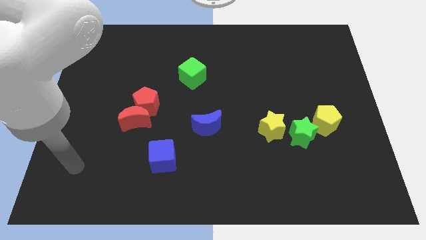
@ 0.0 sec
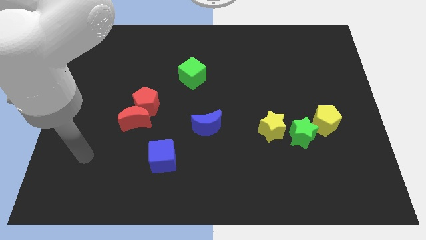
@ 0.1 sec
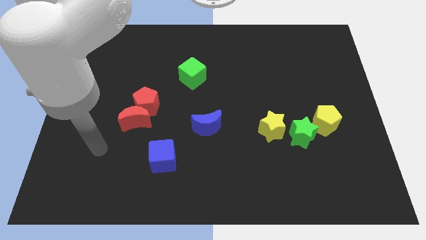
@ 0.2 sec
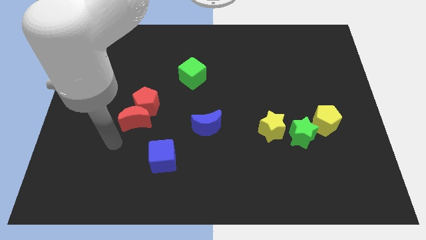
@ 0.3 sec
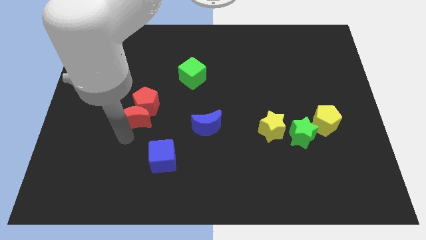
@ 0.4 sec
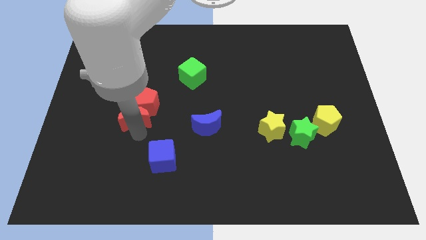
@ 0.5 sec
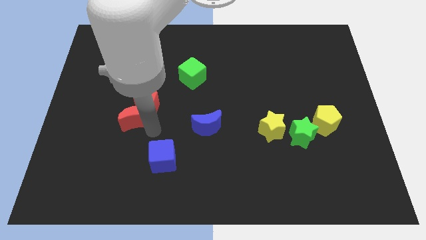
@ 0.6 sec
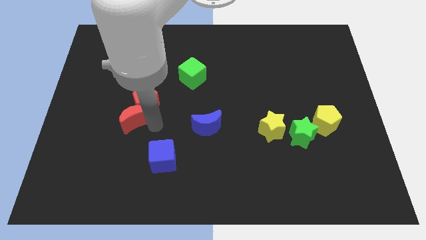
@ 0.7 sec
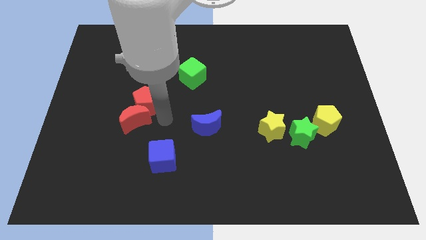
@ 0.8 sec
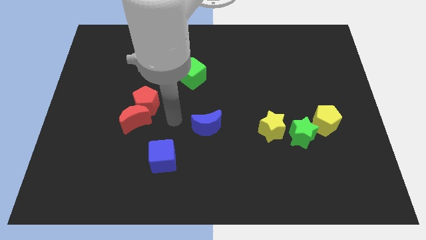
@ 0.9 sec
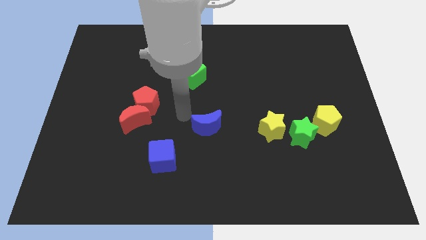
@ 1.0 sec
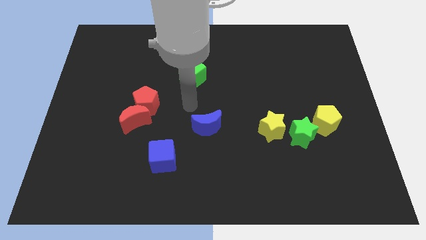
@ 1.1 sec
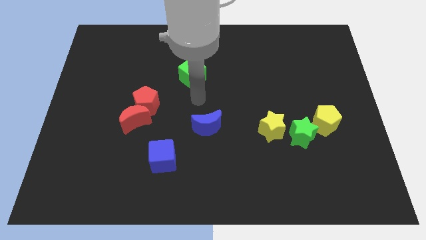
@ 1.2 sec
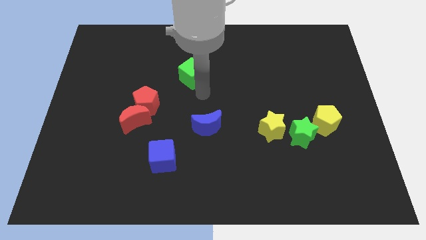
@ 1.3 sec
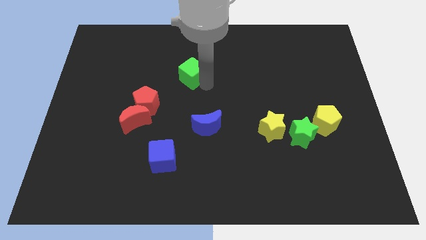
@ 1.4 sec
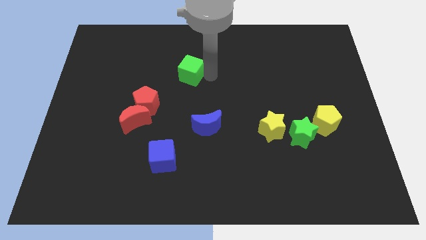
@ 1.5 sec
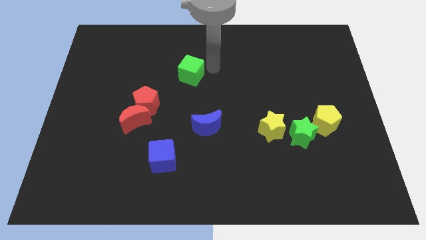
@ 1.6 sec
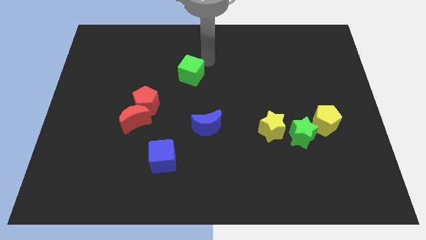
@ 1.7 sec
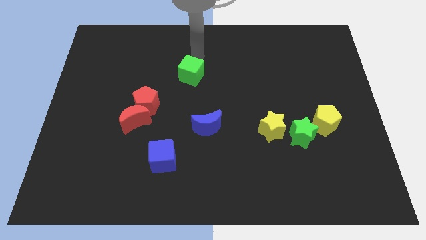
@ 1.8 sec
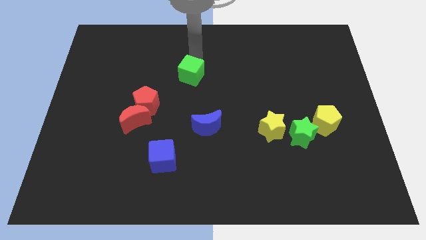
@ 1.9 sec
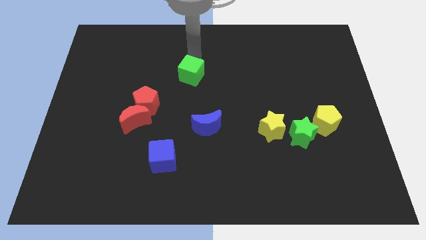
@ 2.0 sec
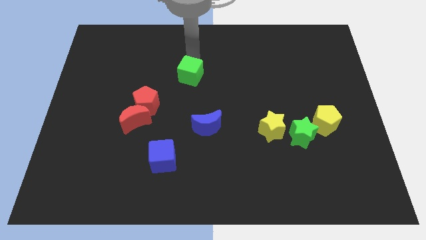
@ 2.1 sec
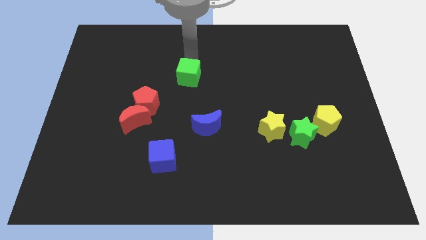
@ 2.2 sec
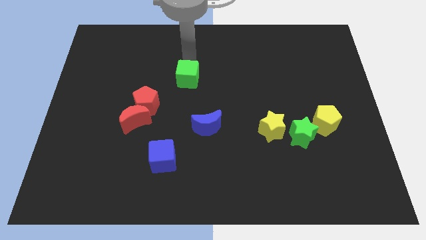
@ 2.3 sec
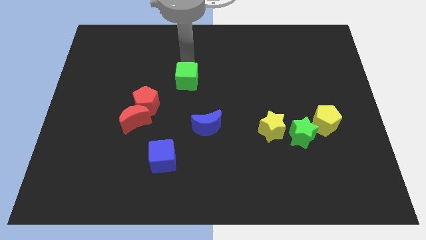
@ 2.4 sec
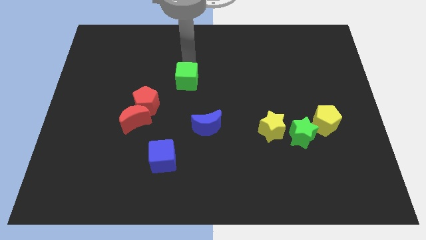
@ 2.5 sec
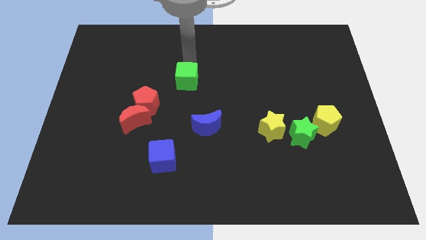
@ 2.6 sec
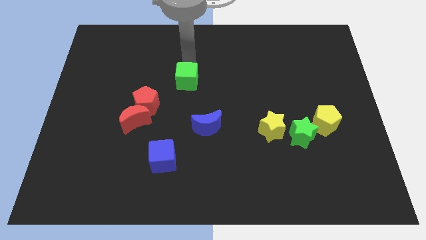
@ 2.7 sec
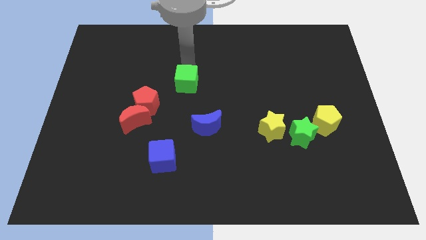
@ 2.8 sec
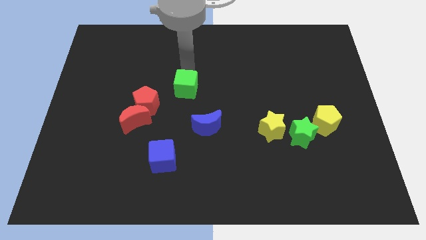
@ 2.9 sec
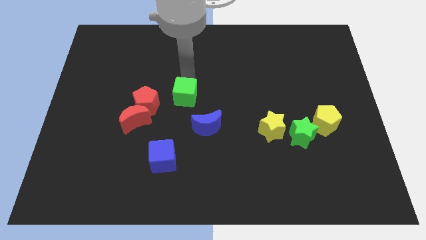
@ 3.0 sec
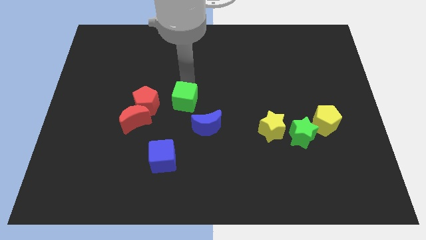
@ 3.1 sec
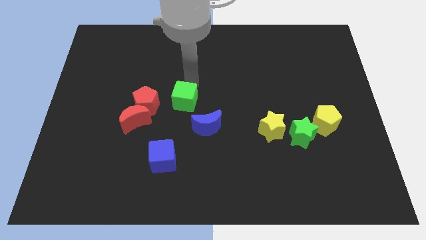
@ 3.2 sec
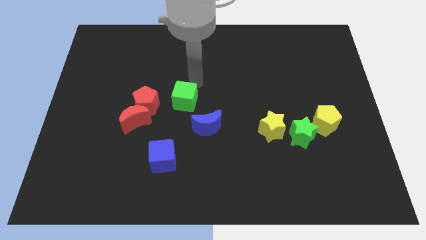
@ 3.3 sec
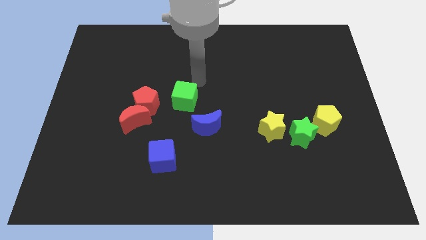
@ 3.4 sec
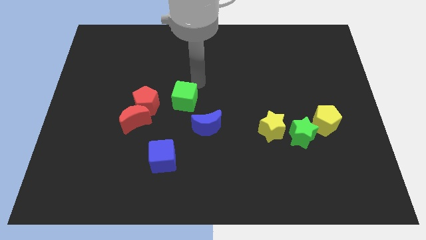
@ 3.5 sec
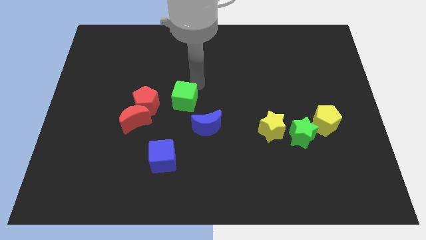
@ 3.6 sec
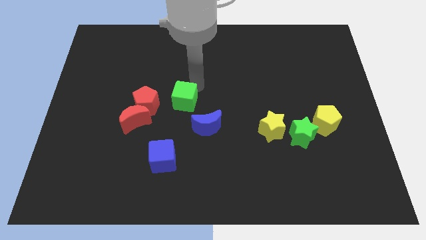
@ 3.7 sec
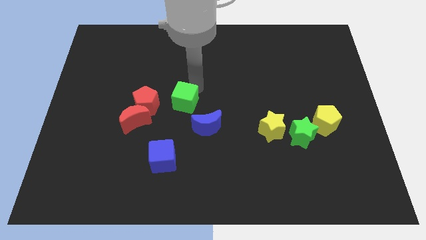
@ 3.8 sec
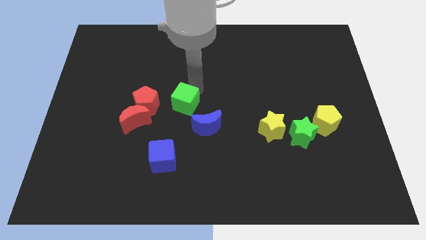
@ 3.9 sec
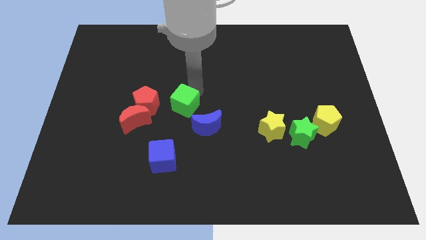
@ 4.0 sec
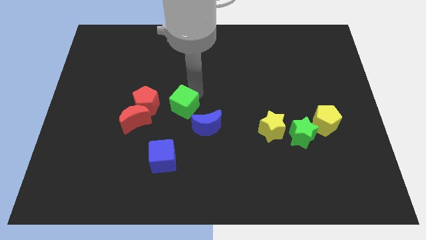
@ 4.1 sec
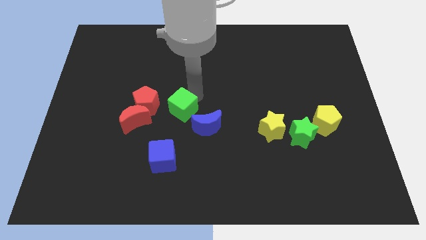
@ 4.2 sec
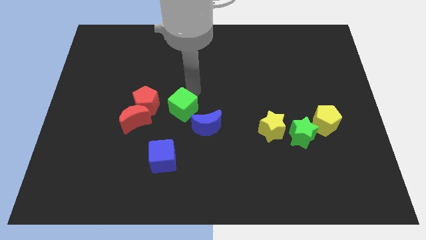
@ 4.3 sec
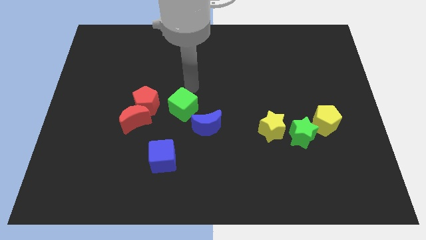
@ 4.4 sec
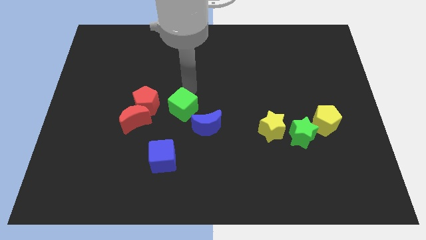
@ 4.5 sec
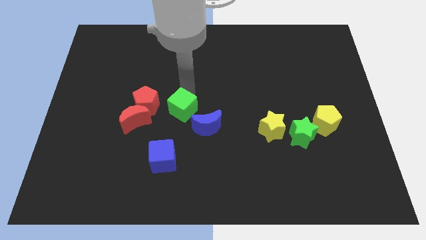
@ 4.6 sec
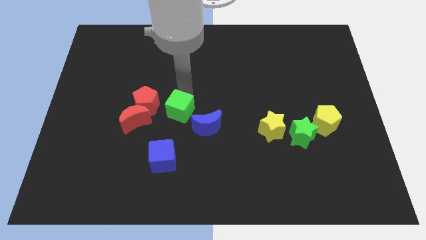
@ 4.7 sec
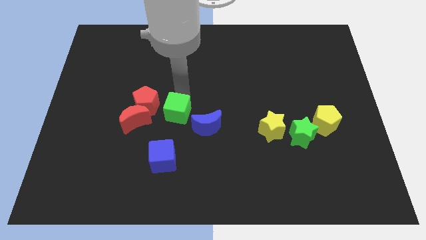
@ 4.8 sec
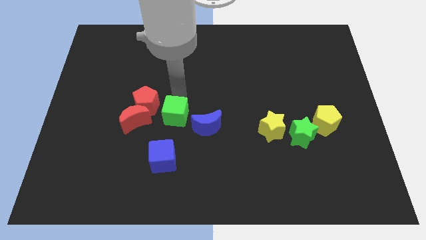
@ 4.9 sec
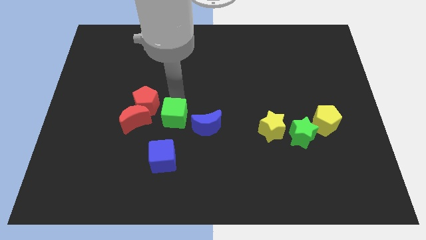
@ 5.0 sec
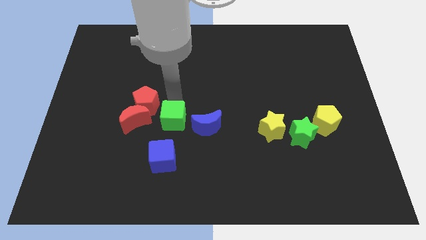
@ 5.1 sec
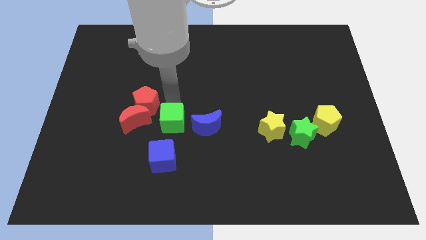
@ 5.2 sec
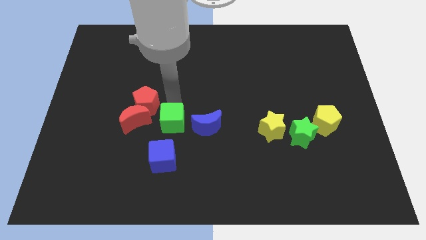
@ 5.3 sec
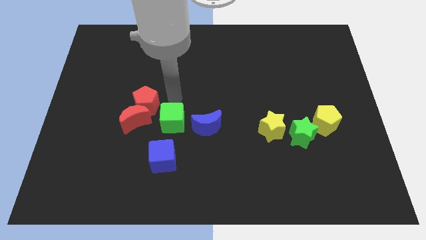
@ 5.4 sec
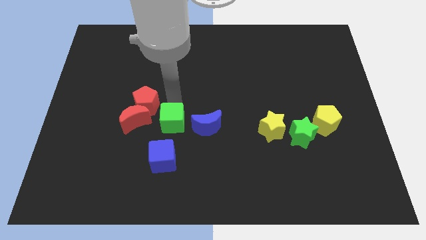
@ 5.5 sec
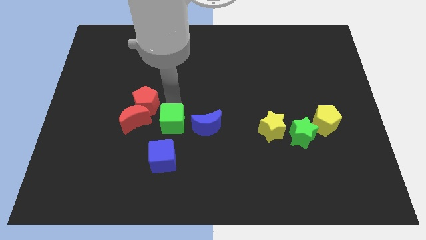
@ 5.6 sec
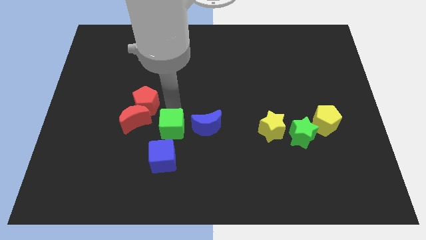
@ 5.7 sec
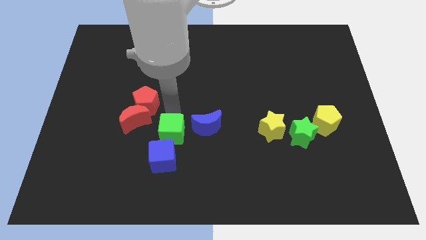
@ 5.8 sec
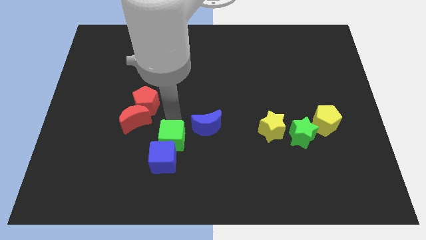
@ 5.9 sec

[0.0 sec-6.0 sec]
put the green cube close to the blue cube

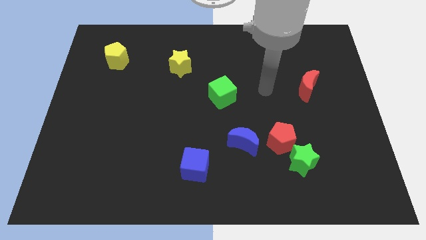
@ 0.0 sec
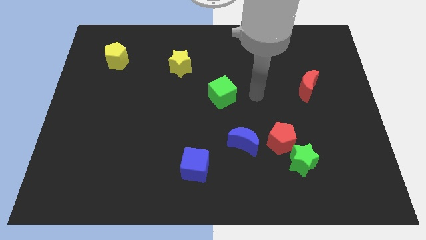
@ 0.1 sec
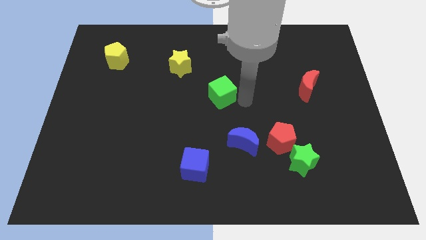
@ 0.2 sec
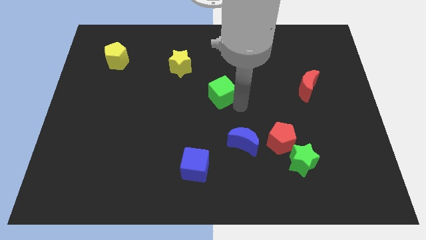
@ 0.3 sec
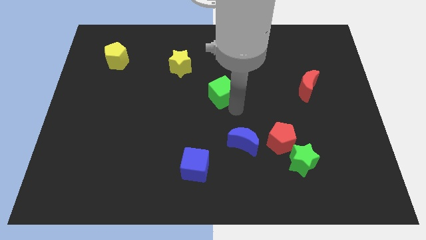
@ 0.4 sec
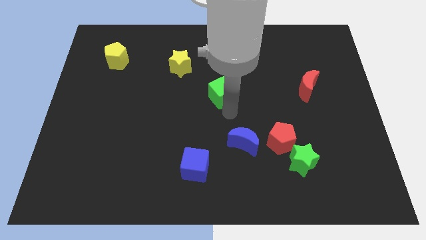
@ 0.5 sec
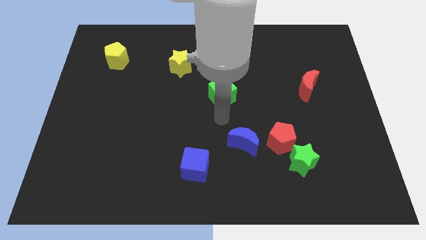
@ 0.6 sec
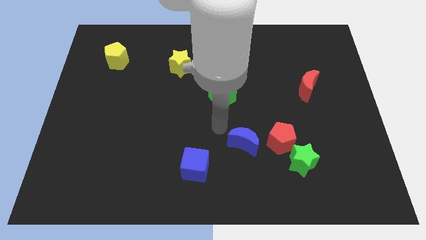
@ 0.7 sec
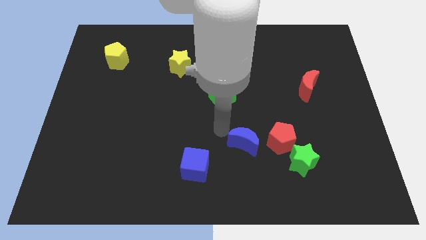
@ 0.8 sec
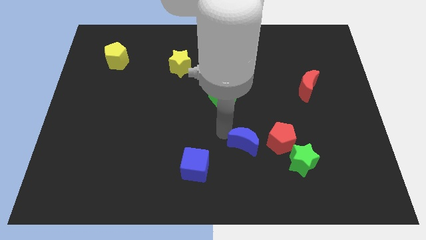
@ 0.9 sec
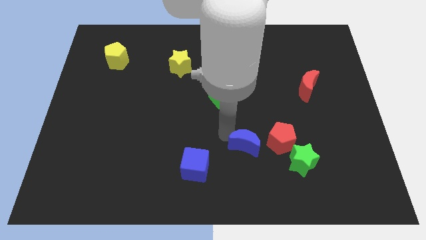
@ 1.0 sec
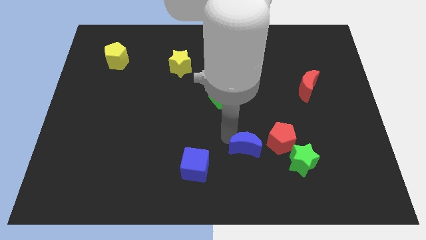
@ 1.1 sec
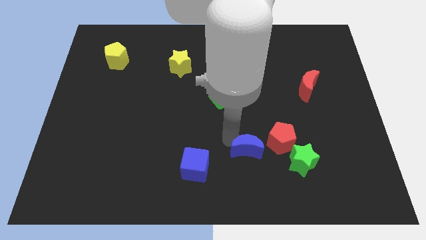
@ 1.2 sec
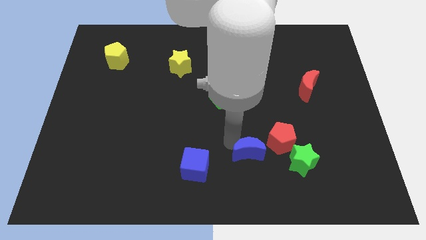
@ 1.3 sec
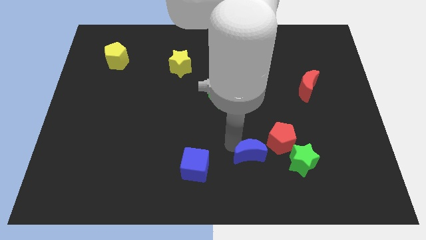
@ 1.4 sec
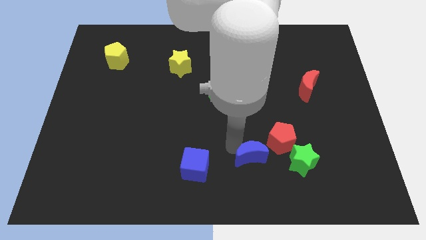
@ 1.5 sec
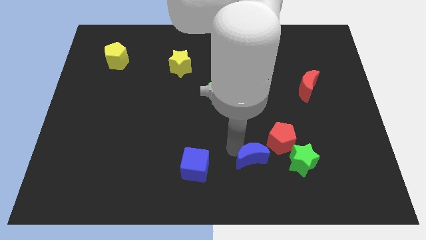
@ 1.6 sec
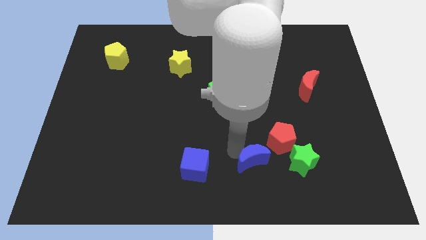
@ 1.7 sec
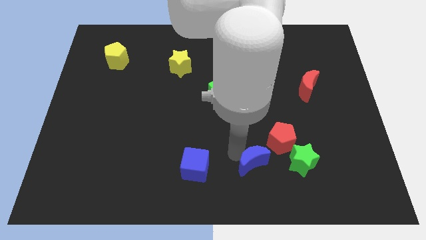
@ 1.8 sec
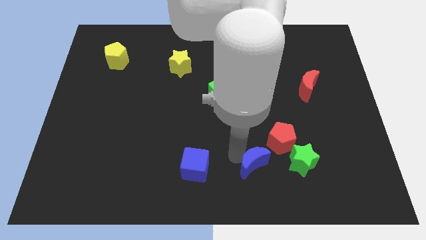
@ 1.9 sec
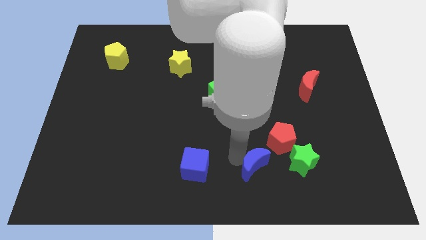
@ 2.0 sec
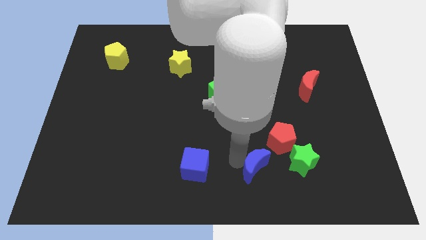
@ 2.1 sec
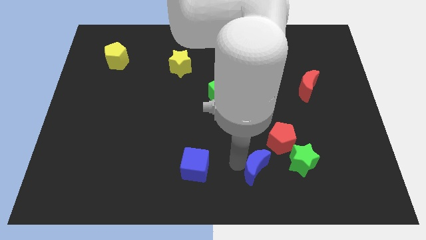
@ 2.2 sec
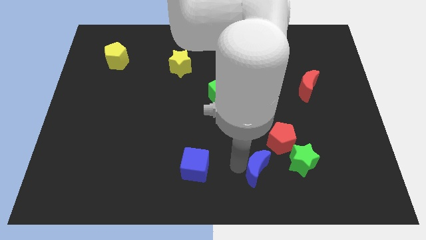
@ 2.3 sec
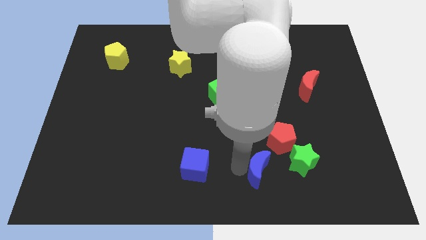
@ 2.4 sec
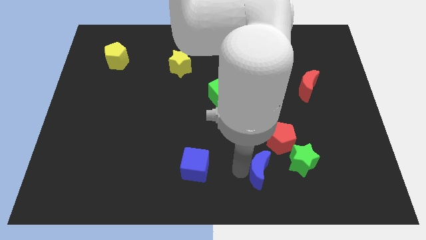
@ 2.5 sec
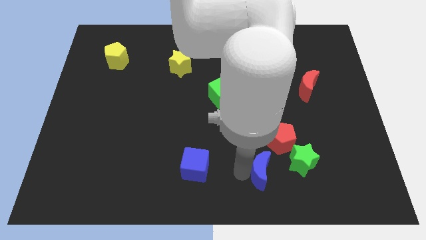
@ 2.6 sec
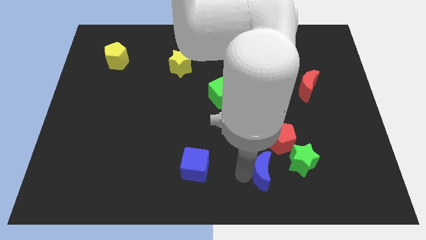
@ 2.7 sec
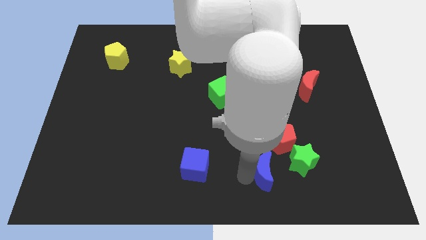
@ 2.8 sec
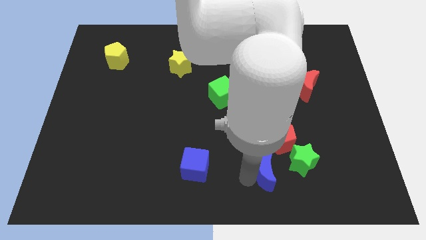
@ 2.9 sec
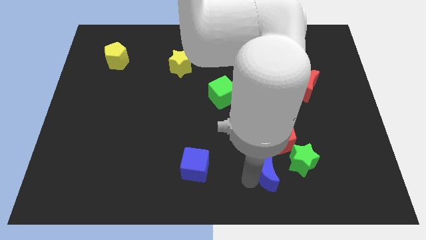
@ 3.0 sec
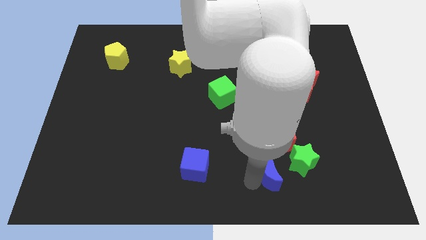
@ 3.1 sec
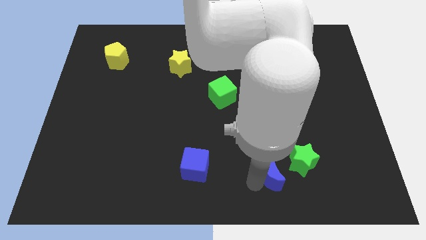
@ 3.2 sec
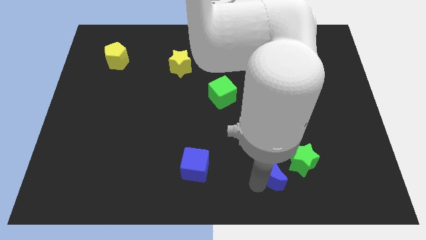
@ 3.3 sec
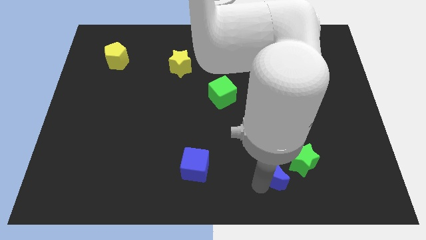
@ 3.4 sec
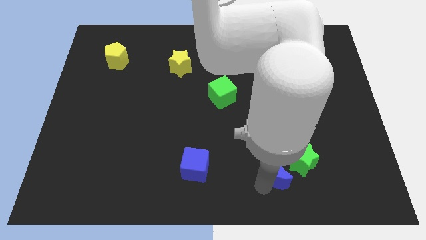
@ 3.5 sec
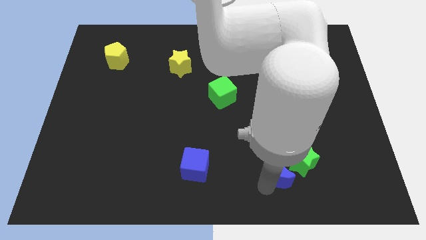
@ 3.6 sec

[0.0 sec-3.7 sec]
push the blue moon close to the green star
